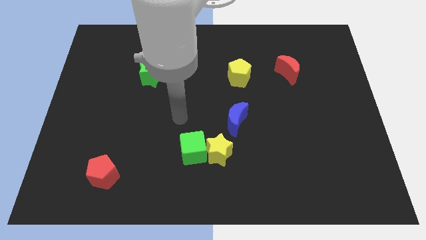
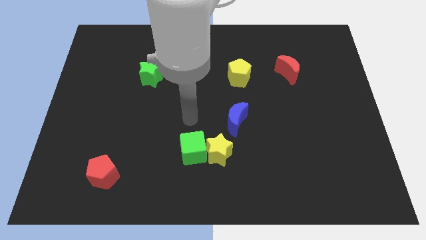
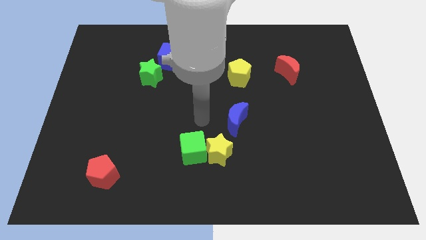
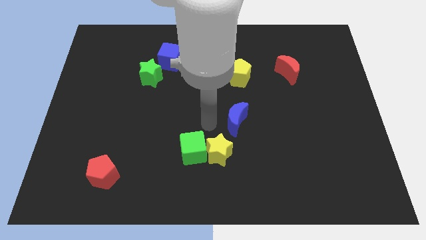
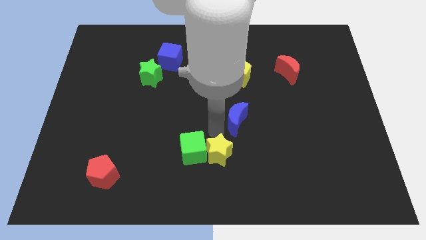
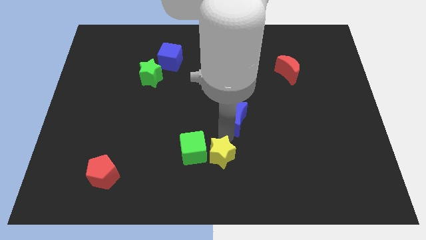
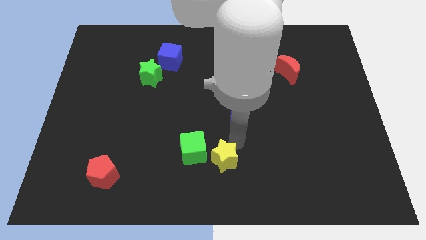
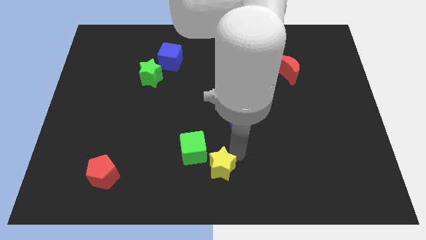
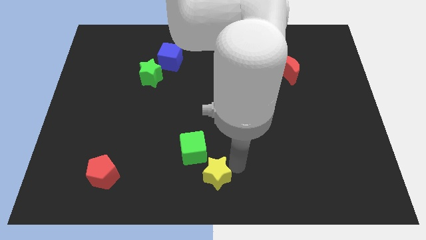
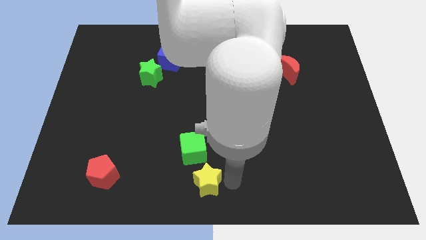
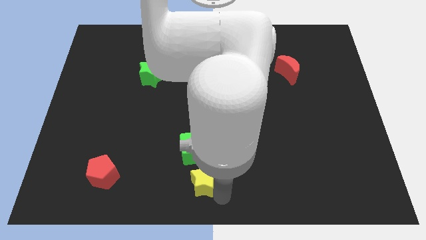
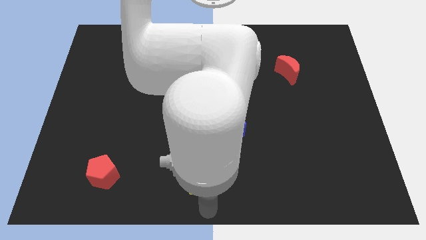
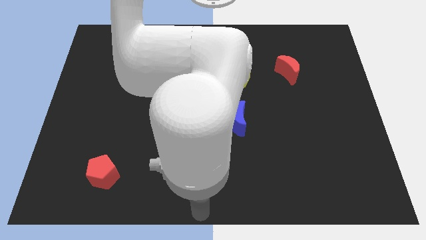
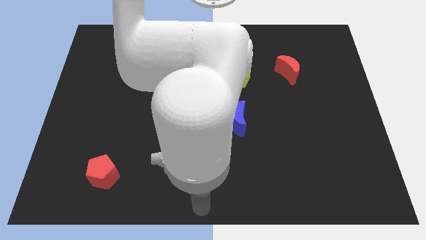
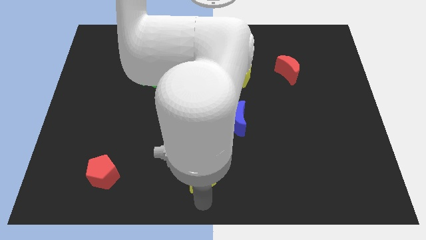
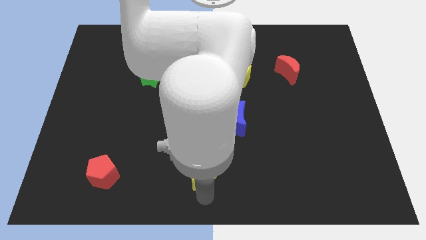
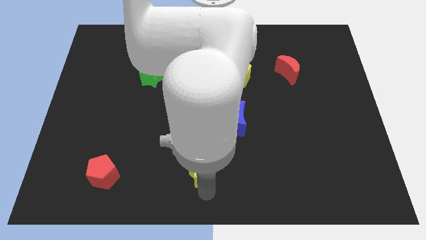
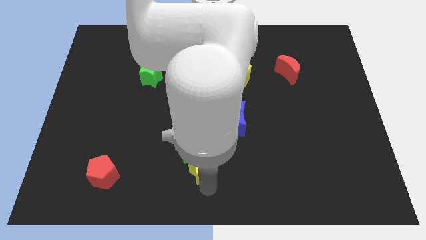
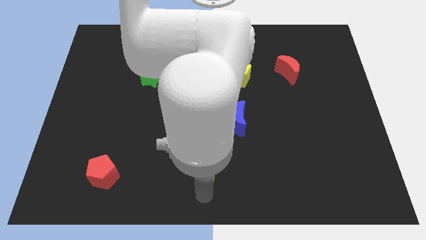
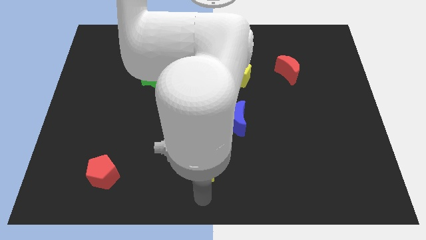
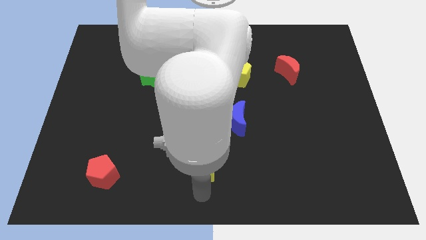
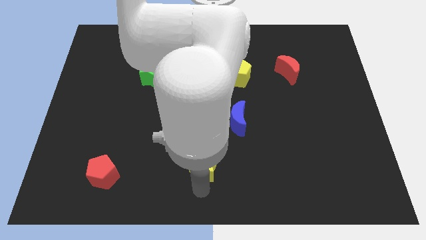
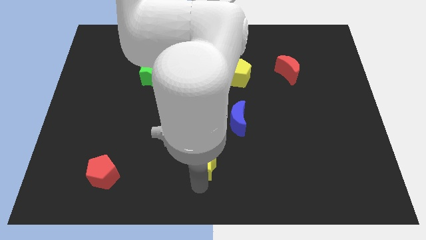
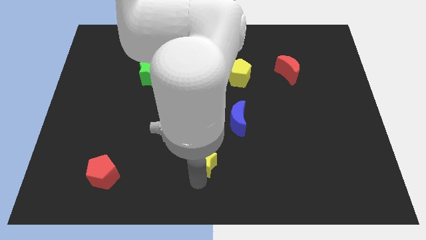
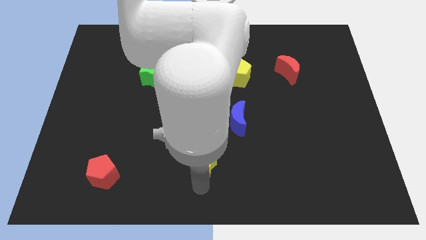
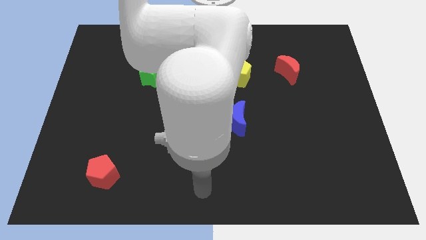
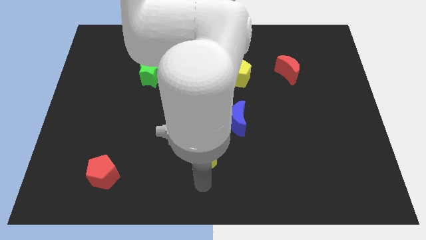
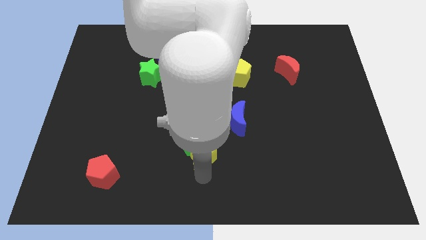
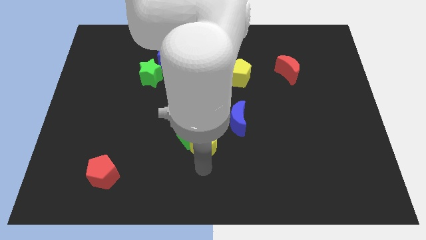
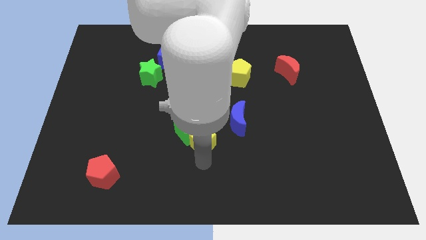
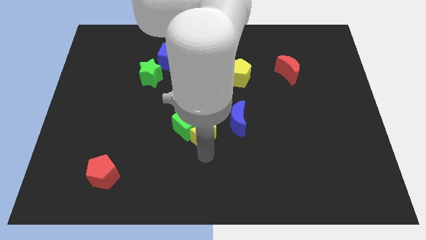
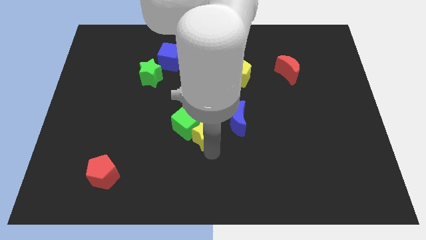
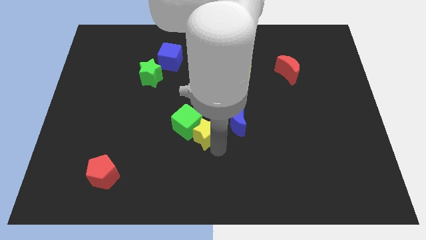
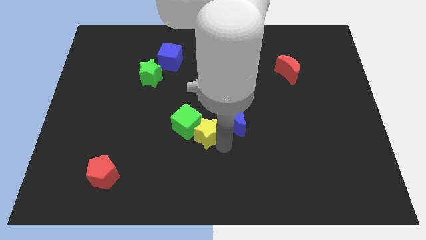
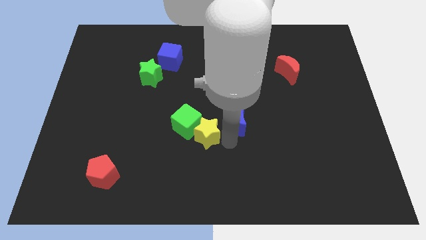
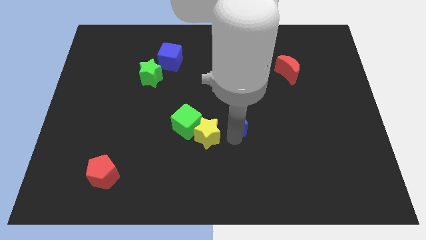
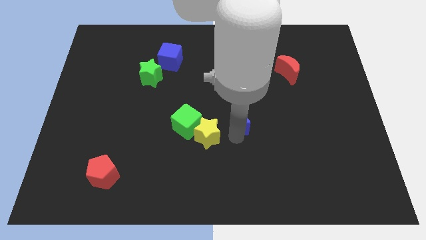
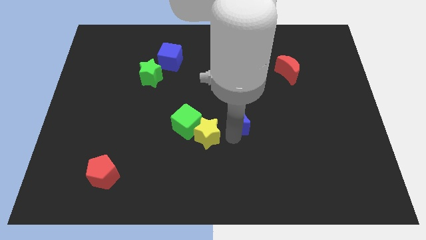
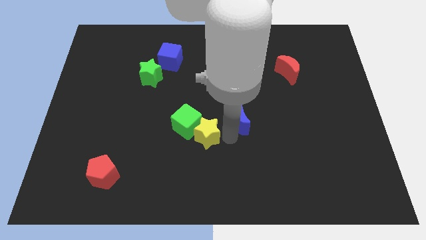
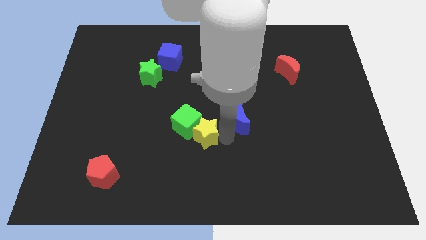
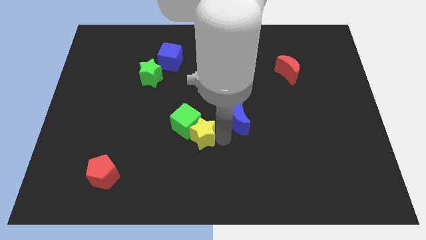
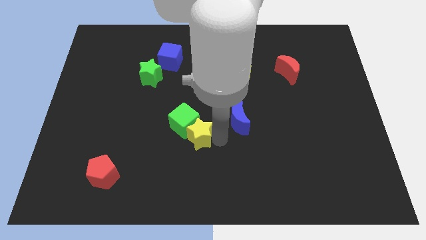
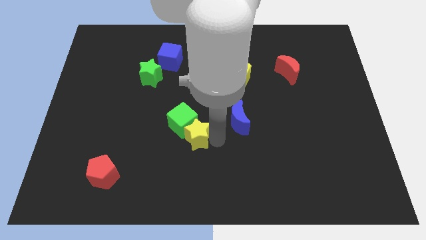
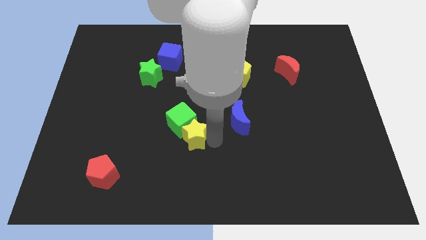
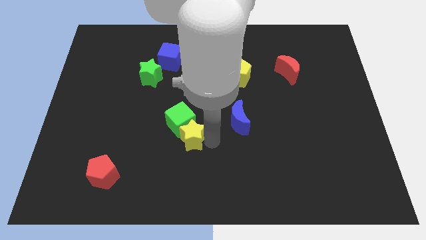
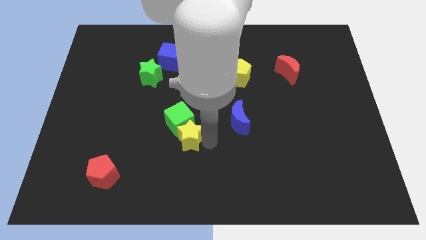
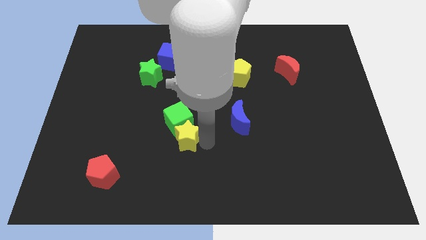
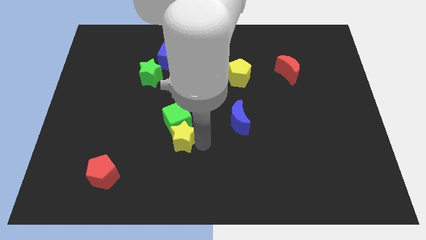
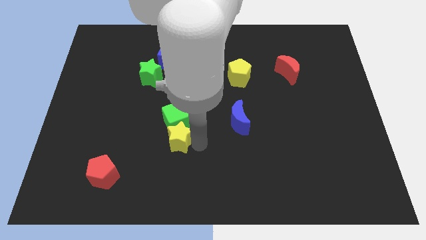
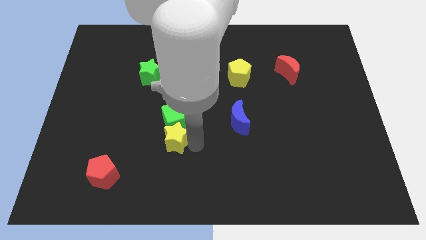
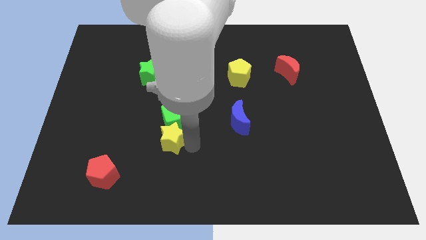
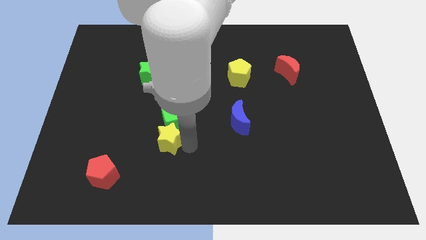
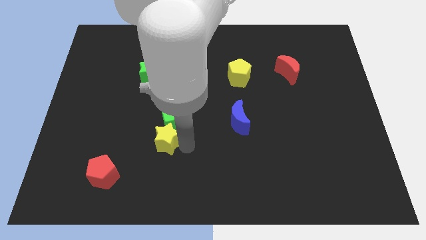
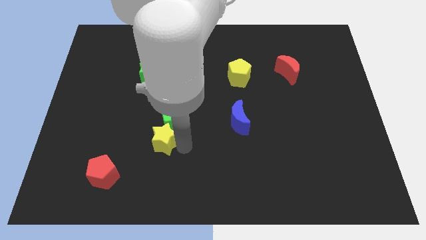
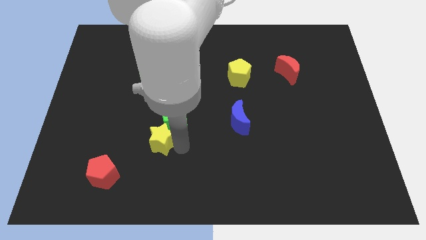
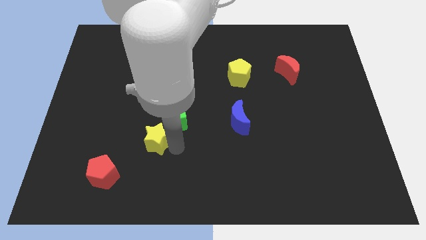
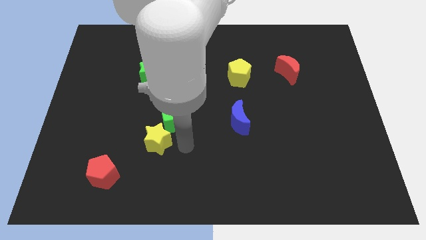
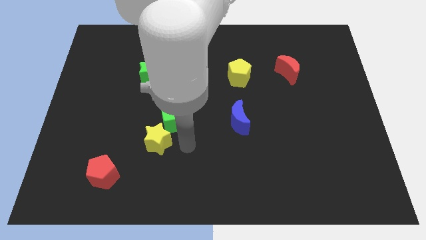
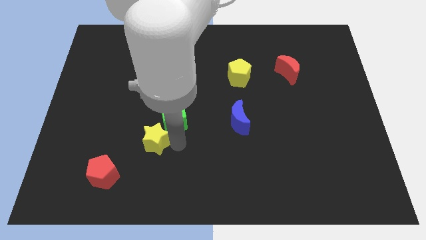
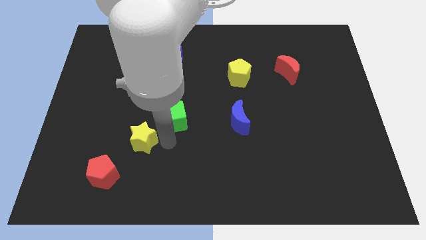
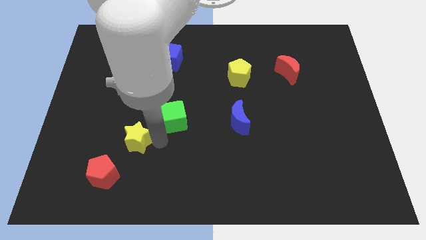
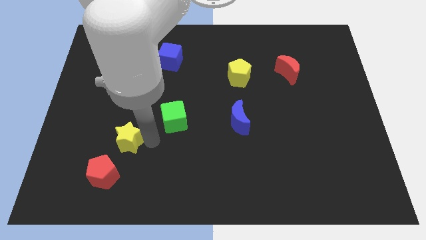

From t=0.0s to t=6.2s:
put the yellow star to the top of the red pentagon

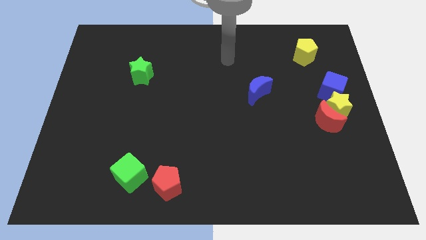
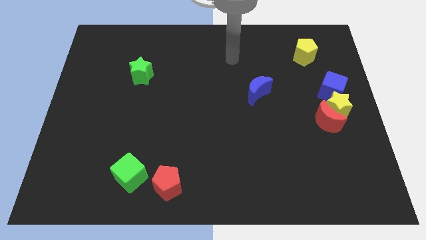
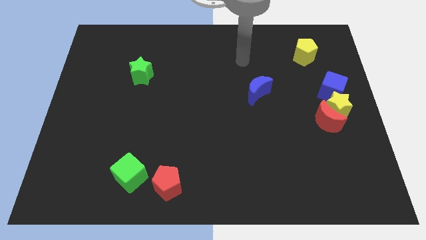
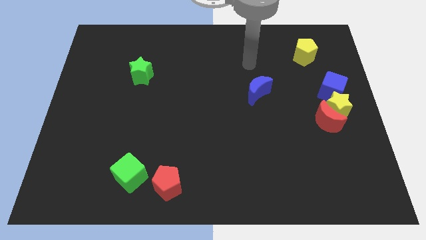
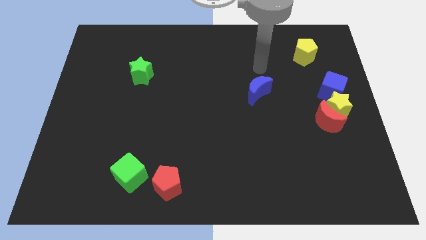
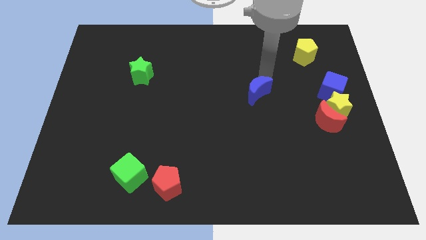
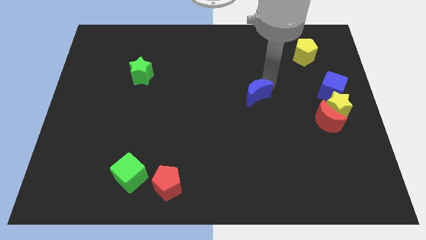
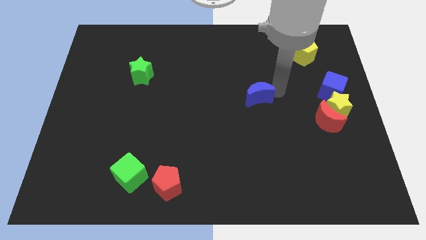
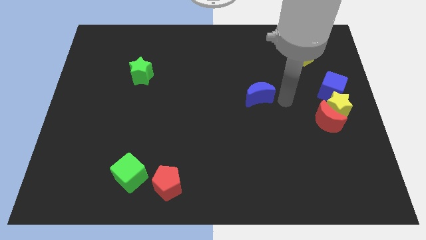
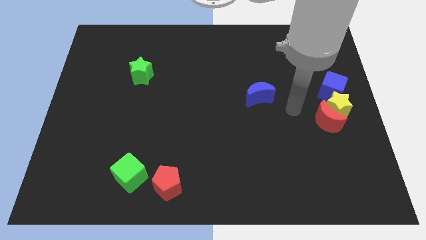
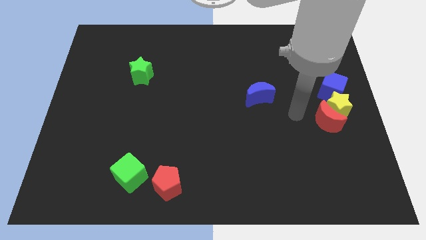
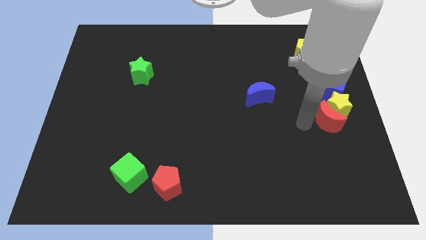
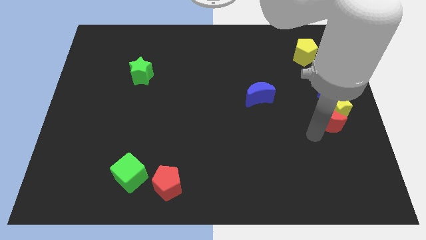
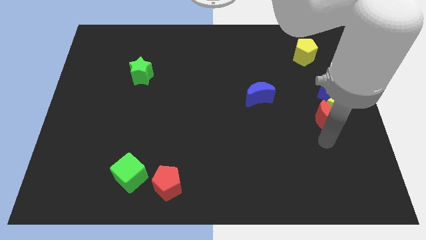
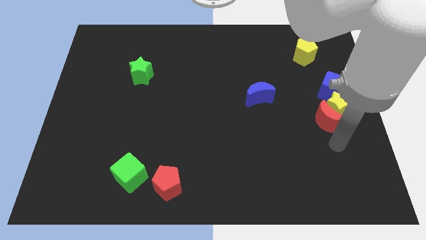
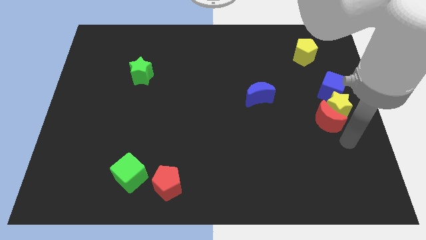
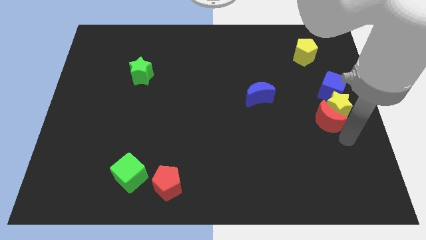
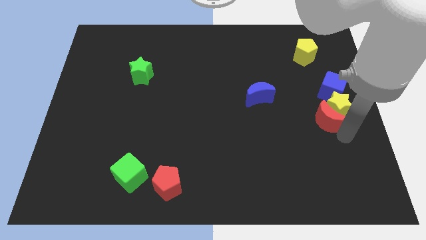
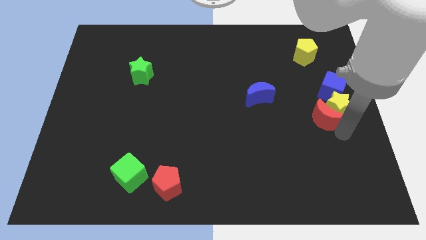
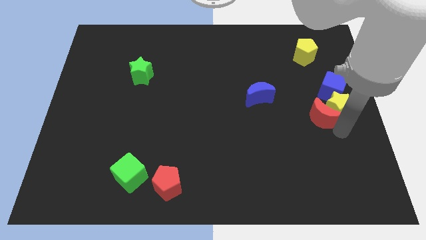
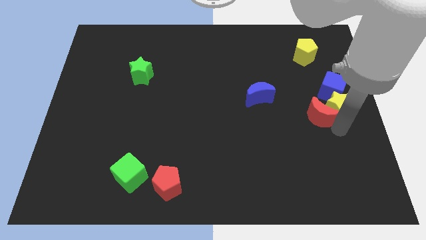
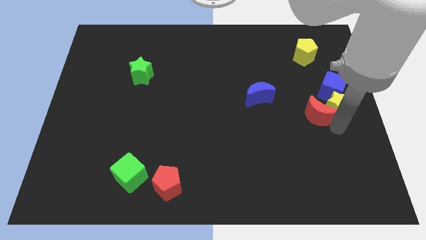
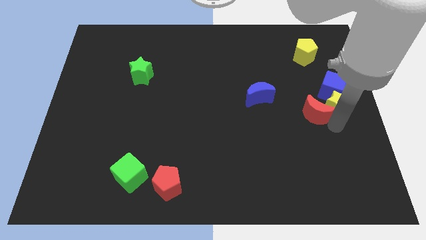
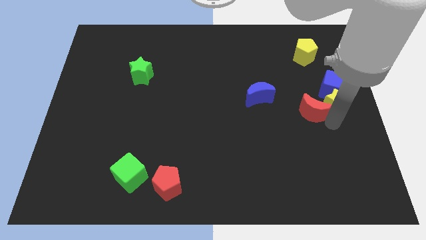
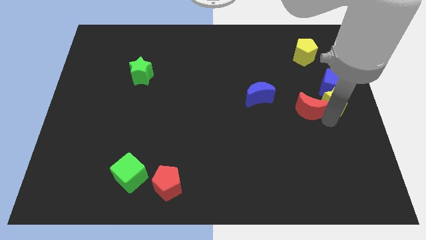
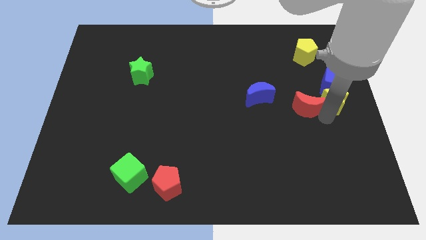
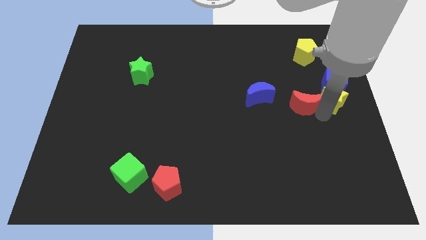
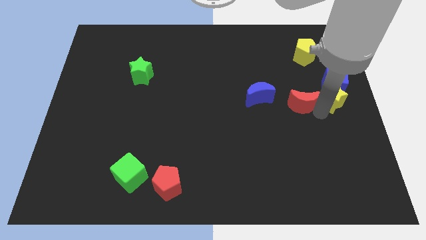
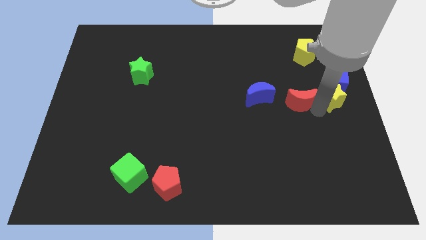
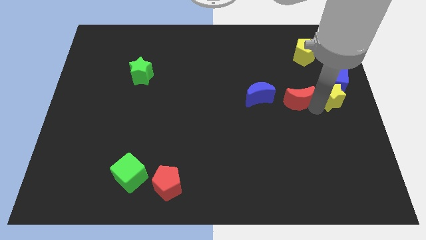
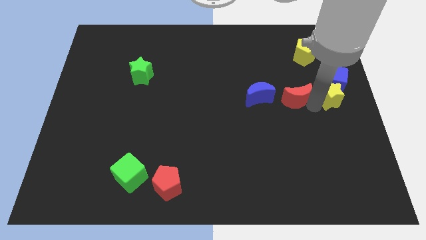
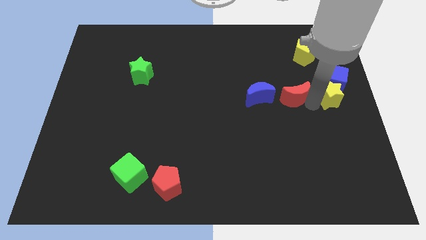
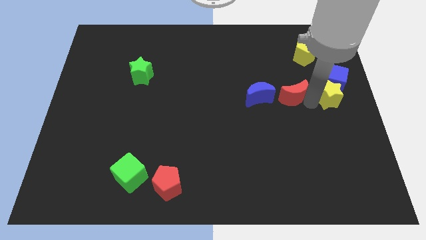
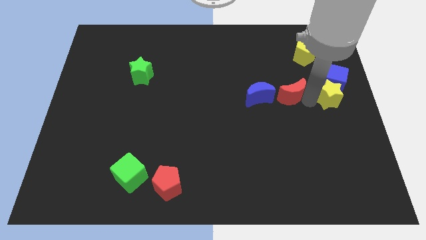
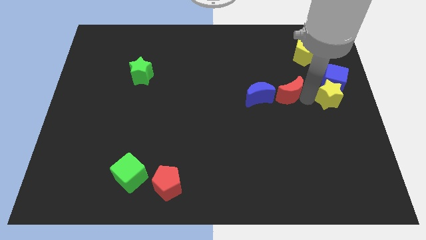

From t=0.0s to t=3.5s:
slide the red moon to the top right of the blue moon
